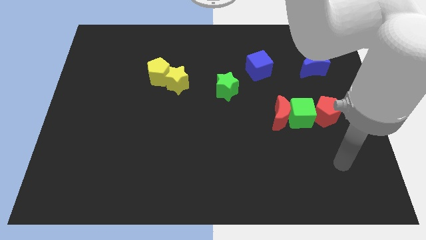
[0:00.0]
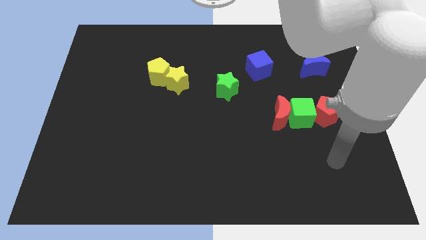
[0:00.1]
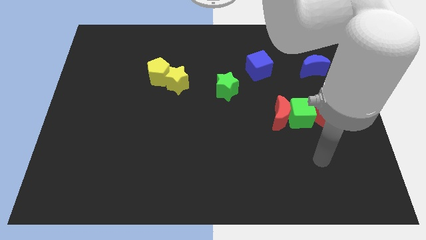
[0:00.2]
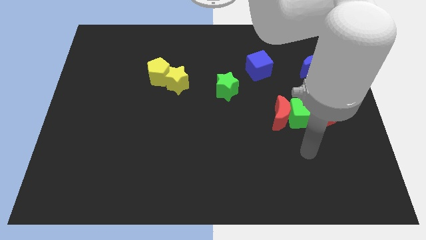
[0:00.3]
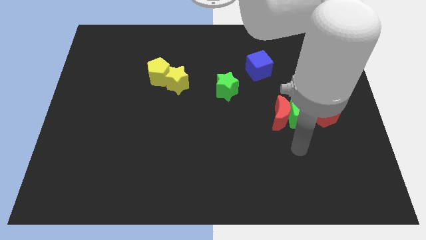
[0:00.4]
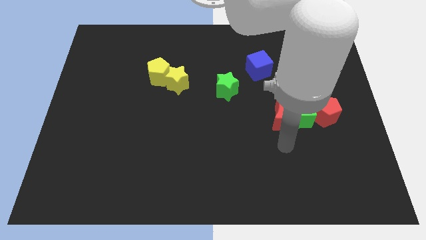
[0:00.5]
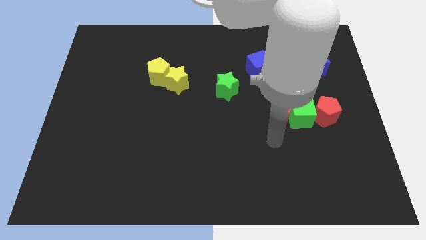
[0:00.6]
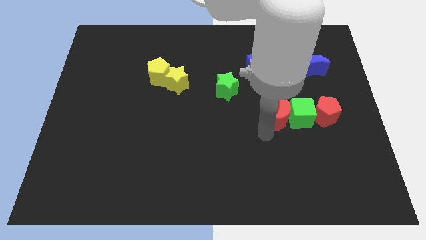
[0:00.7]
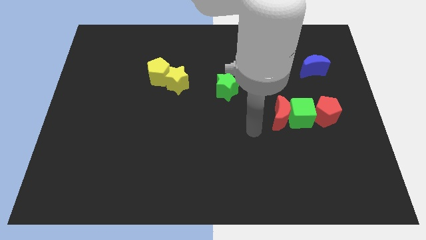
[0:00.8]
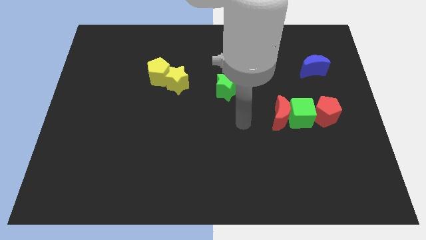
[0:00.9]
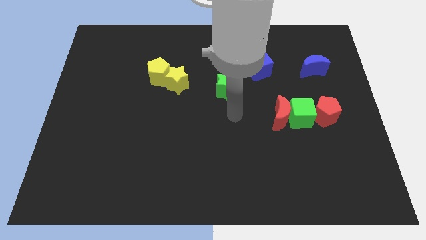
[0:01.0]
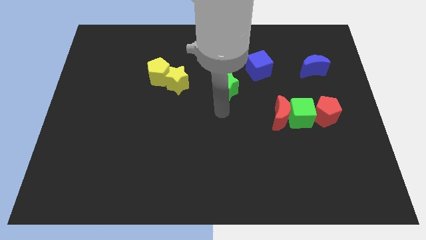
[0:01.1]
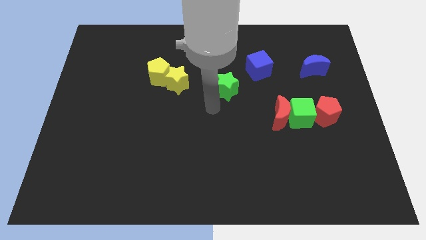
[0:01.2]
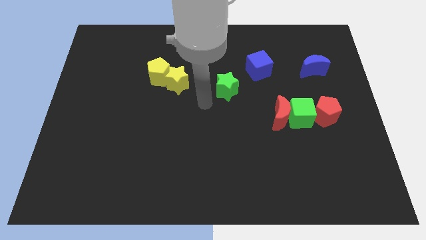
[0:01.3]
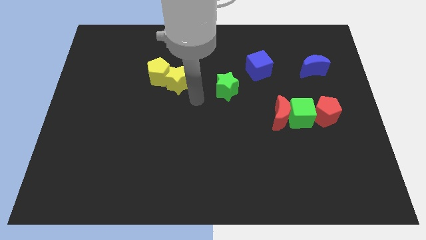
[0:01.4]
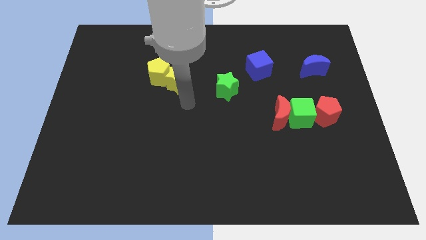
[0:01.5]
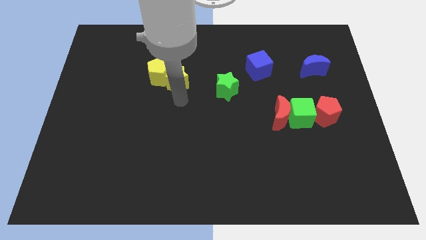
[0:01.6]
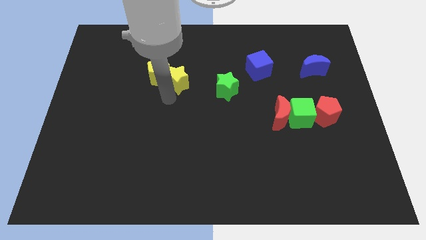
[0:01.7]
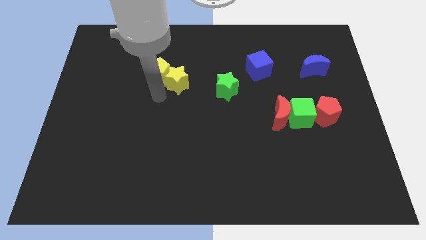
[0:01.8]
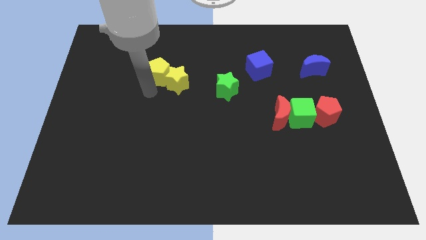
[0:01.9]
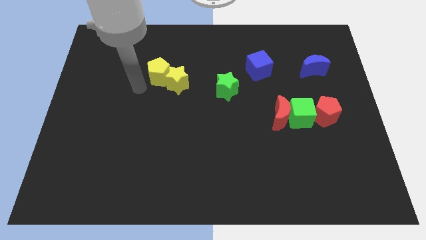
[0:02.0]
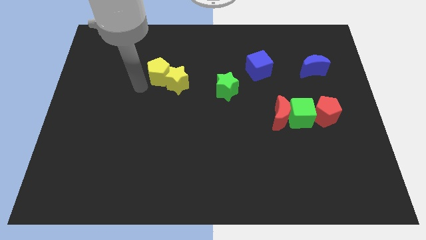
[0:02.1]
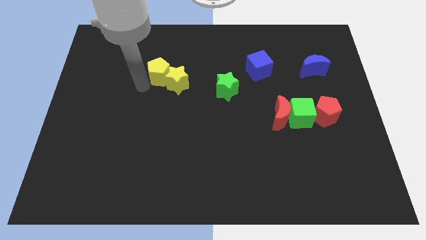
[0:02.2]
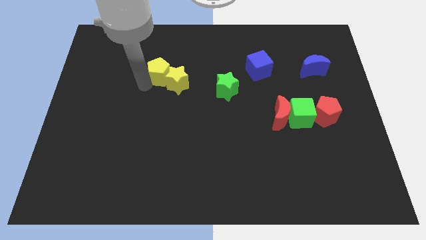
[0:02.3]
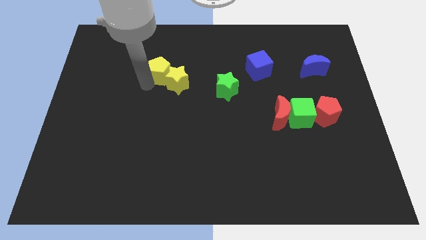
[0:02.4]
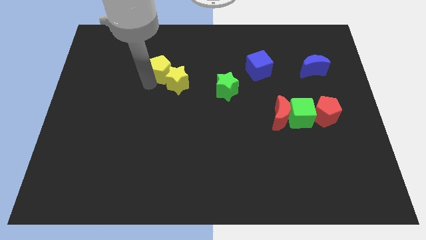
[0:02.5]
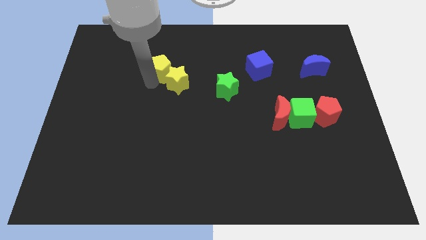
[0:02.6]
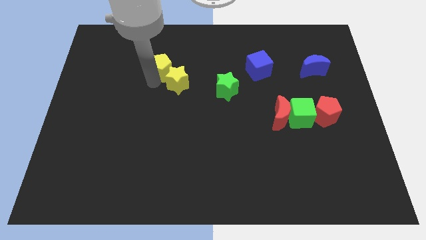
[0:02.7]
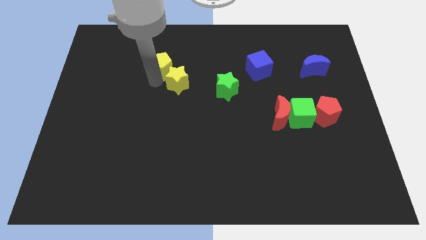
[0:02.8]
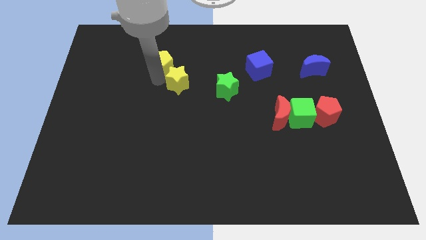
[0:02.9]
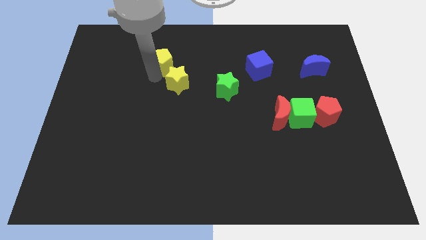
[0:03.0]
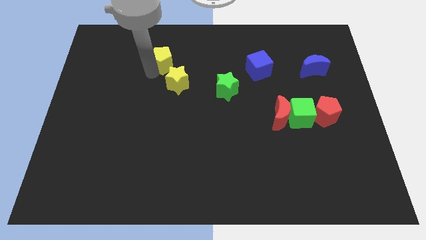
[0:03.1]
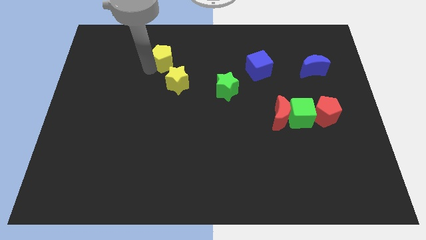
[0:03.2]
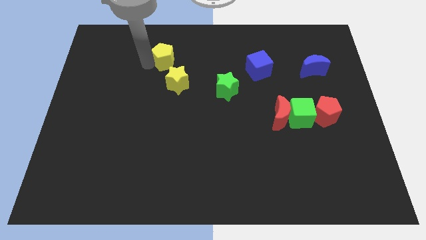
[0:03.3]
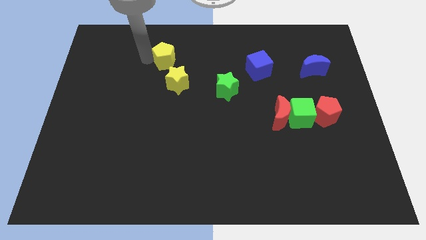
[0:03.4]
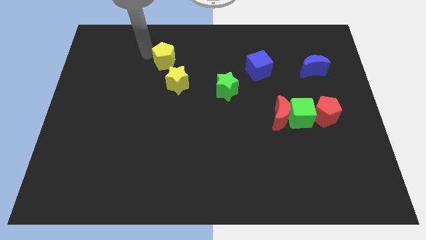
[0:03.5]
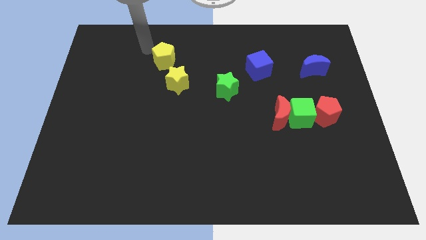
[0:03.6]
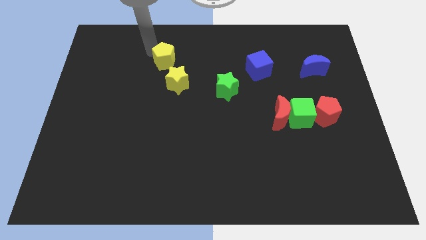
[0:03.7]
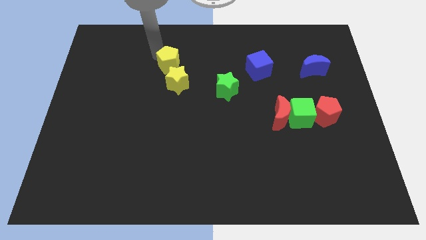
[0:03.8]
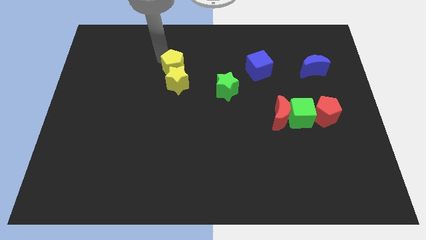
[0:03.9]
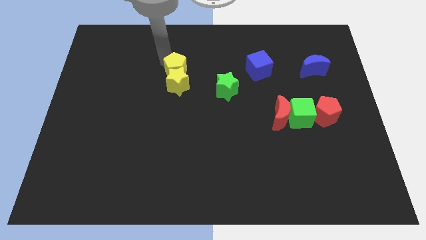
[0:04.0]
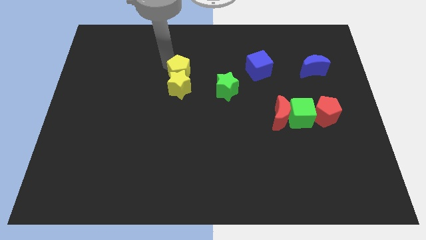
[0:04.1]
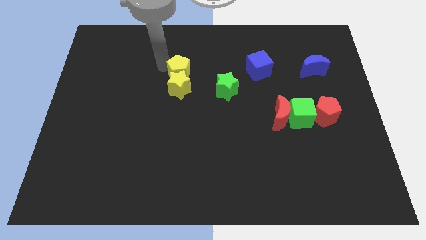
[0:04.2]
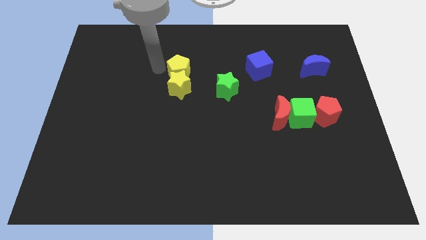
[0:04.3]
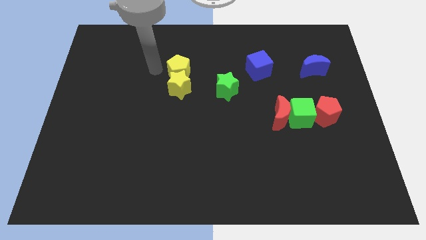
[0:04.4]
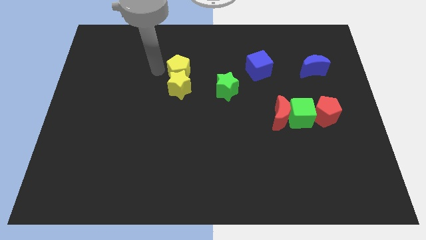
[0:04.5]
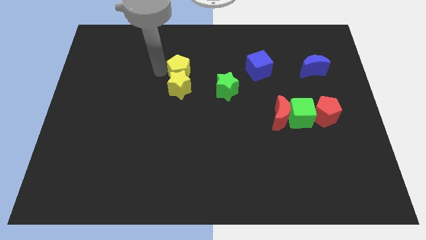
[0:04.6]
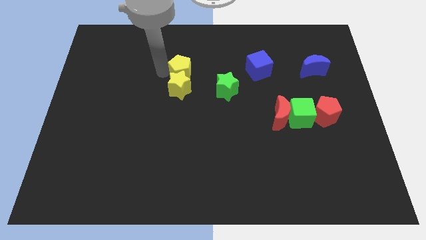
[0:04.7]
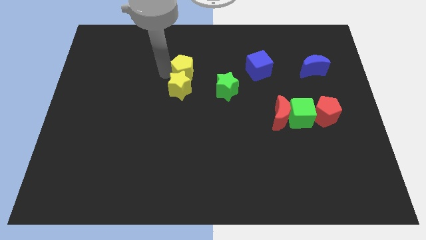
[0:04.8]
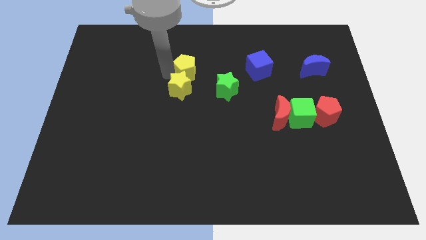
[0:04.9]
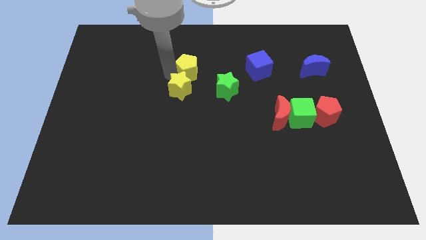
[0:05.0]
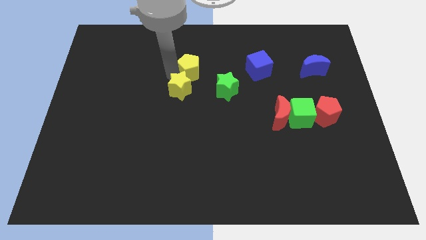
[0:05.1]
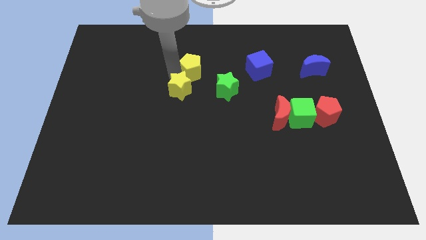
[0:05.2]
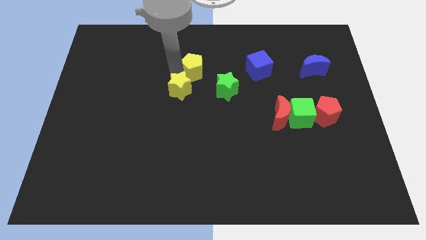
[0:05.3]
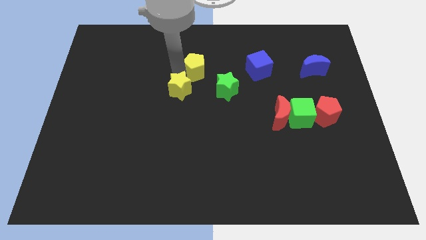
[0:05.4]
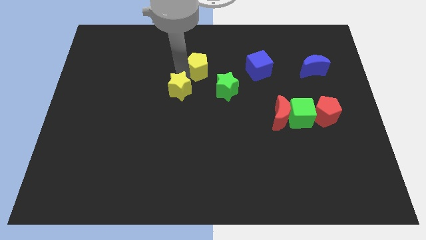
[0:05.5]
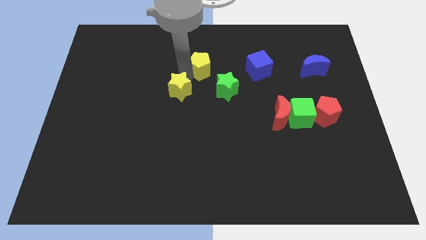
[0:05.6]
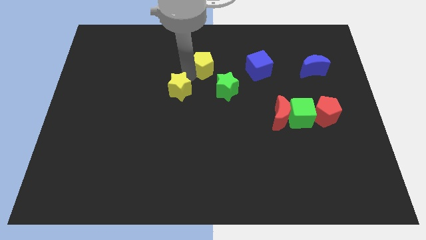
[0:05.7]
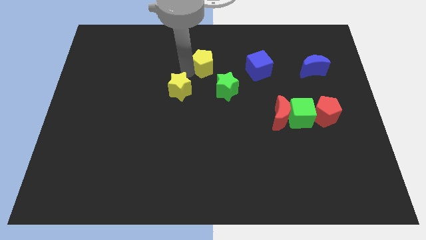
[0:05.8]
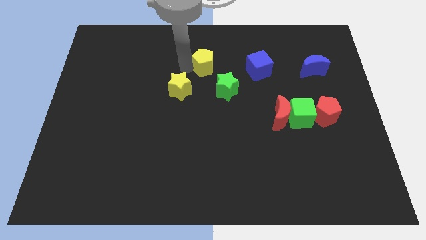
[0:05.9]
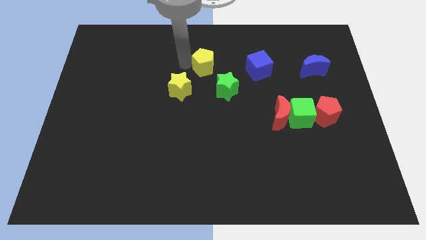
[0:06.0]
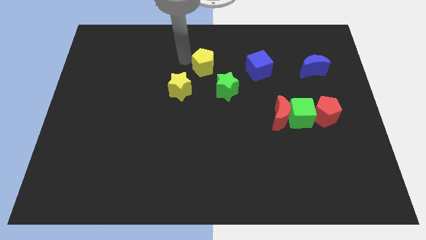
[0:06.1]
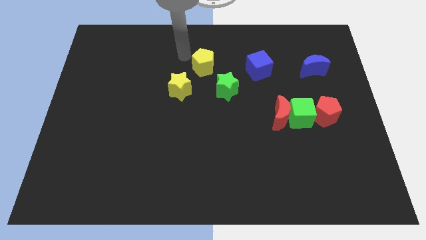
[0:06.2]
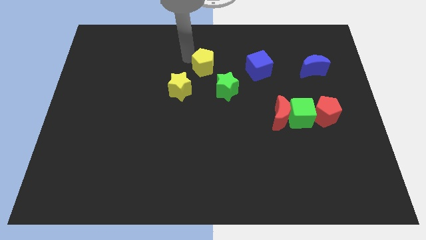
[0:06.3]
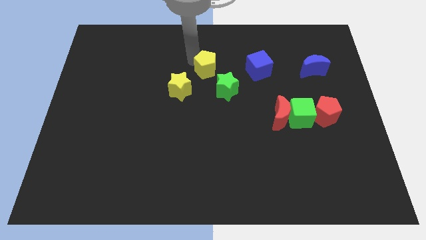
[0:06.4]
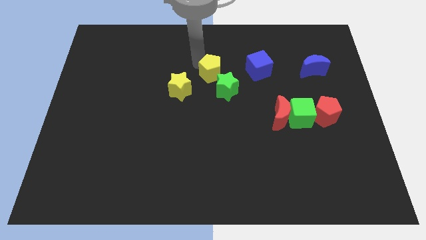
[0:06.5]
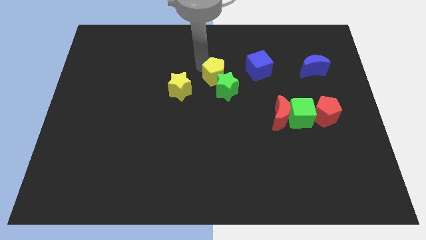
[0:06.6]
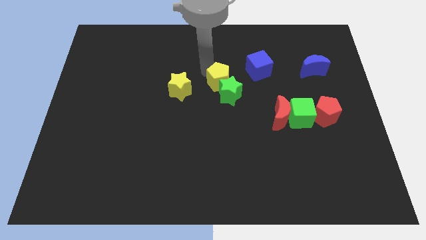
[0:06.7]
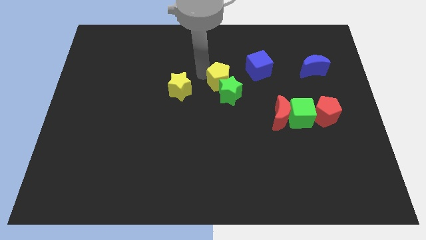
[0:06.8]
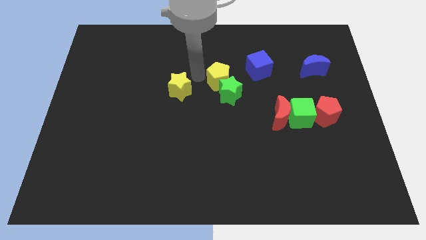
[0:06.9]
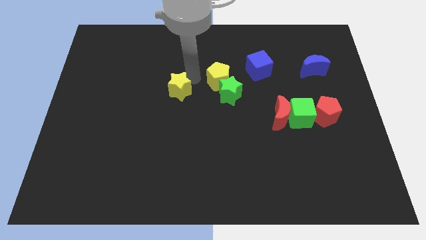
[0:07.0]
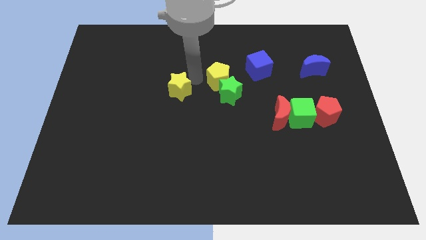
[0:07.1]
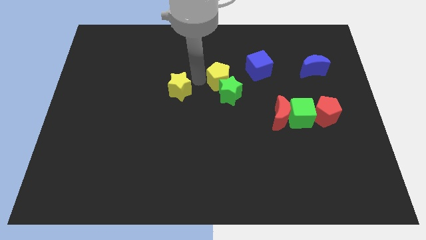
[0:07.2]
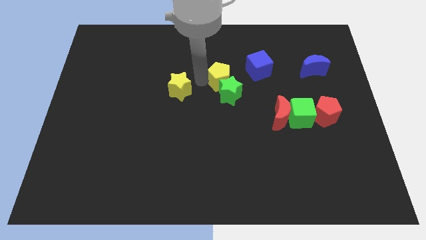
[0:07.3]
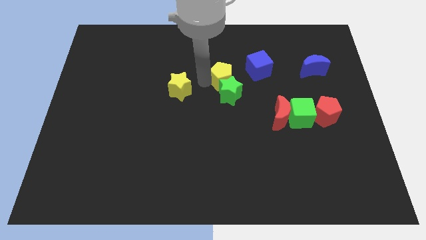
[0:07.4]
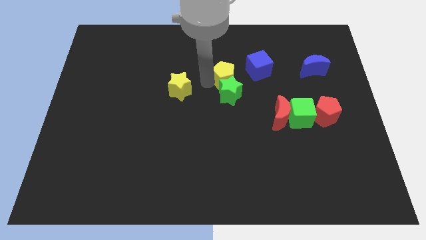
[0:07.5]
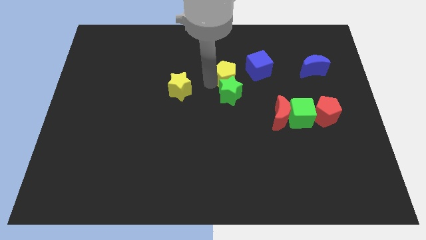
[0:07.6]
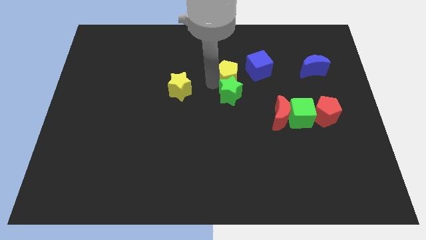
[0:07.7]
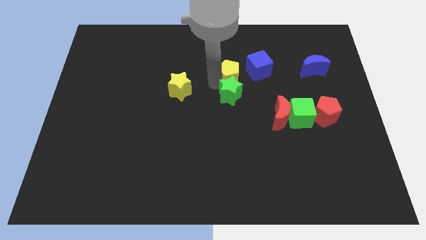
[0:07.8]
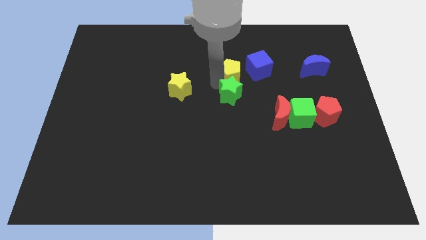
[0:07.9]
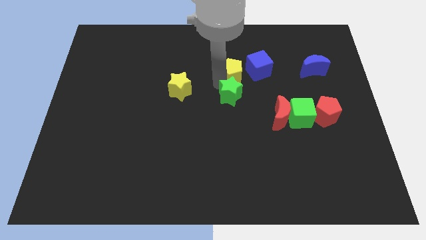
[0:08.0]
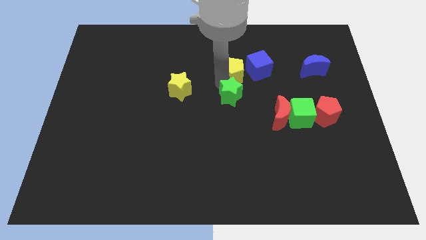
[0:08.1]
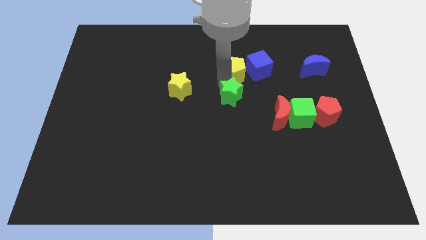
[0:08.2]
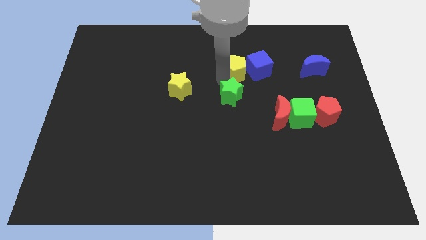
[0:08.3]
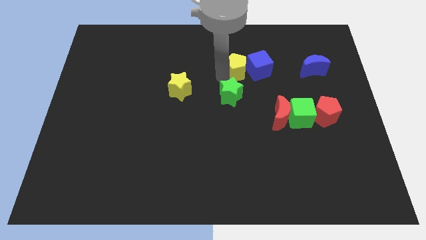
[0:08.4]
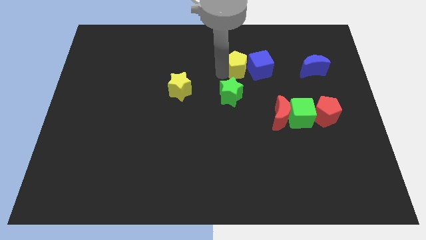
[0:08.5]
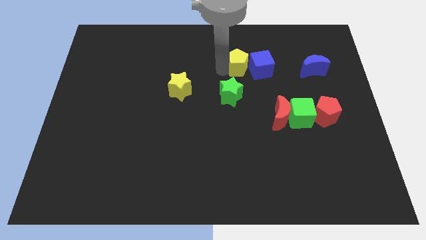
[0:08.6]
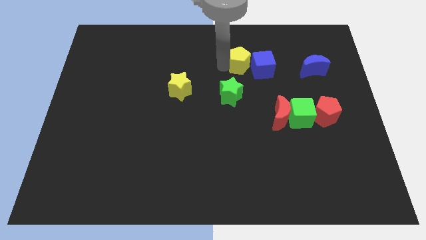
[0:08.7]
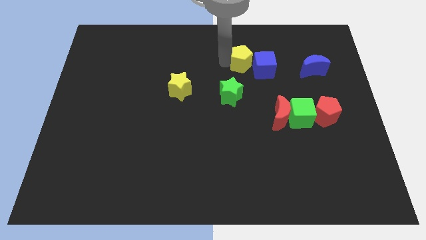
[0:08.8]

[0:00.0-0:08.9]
slide the yellow pentagon to the right
